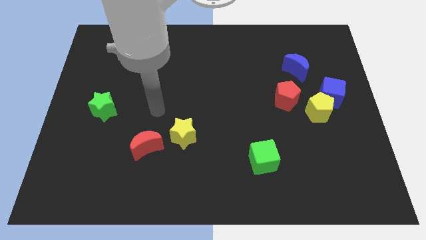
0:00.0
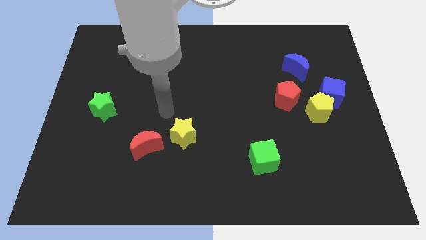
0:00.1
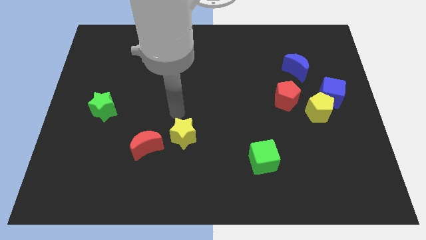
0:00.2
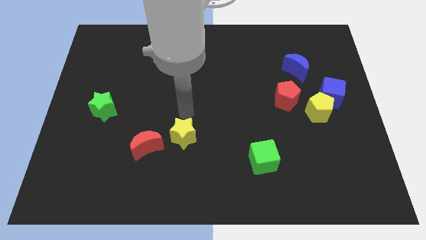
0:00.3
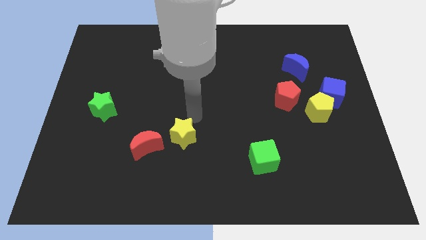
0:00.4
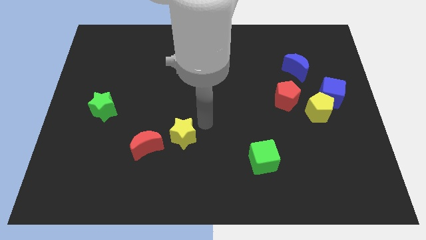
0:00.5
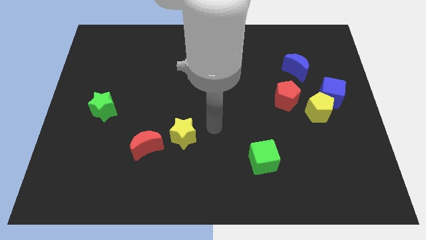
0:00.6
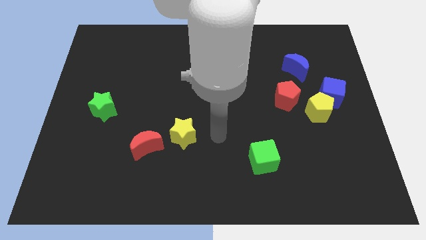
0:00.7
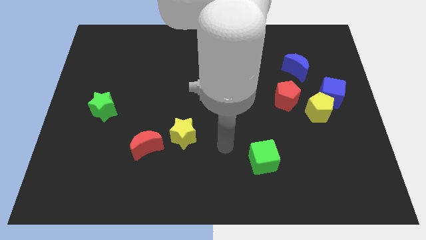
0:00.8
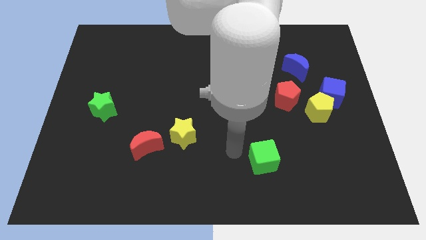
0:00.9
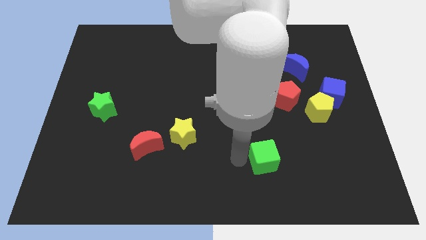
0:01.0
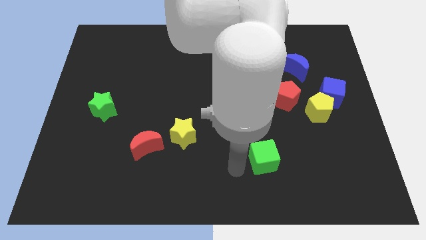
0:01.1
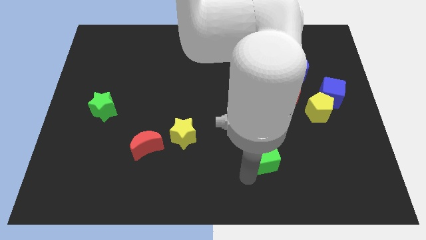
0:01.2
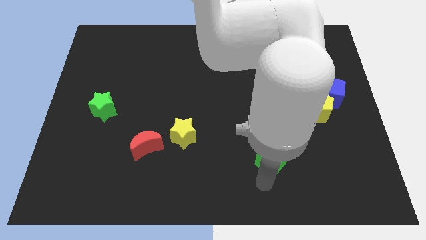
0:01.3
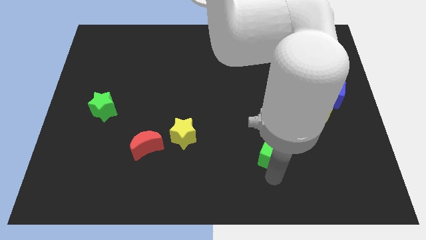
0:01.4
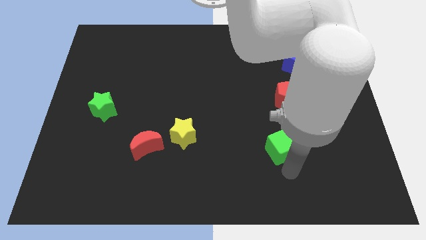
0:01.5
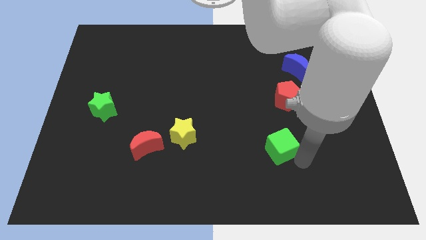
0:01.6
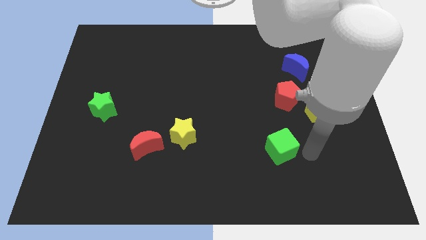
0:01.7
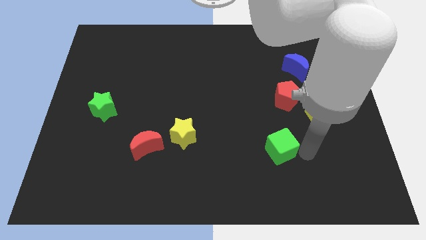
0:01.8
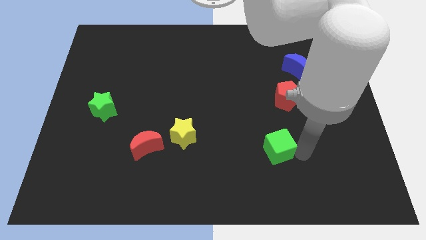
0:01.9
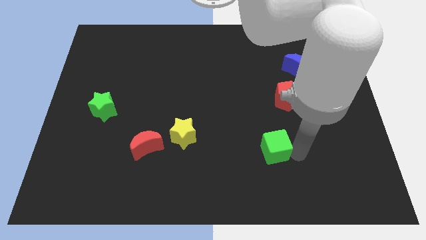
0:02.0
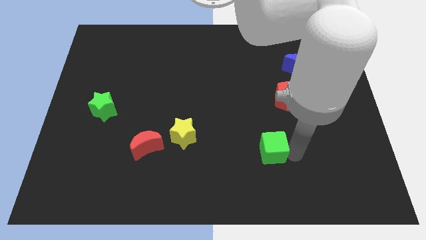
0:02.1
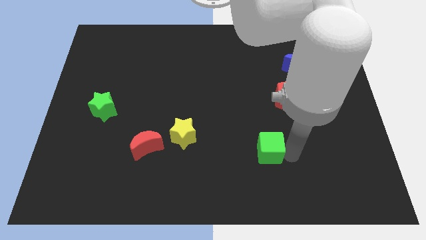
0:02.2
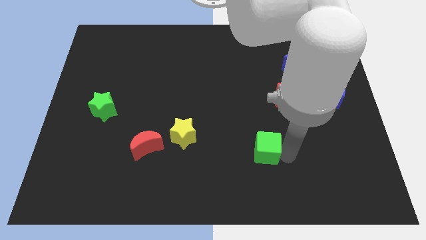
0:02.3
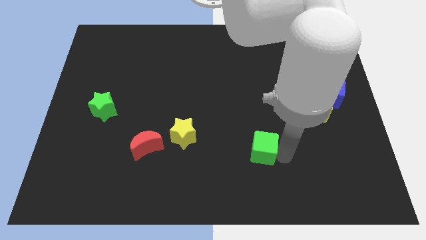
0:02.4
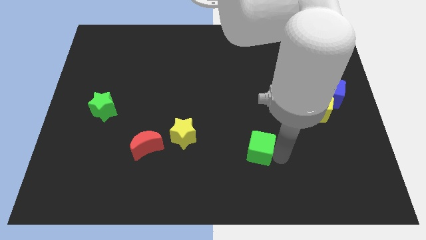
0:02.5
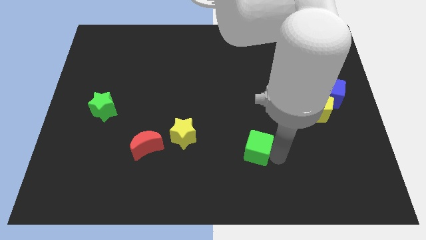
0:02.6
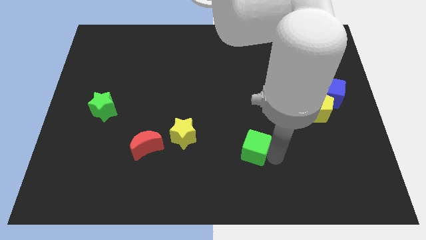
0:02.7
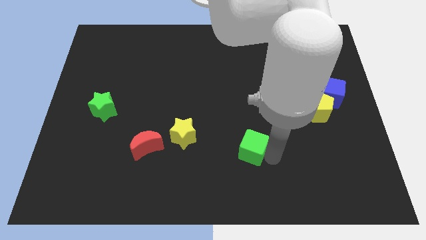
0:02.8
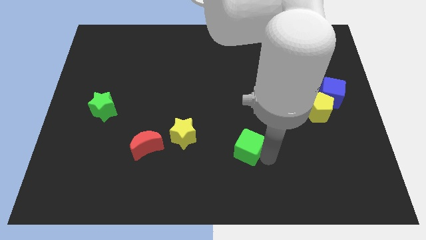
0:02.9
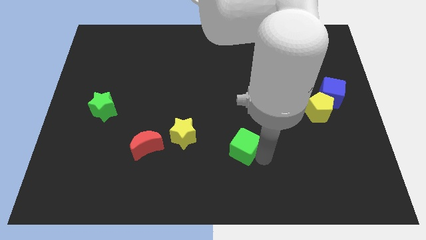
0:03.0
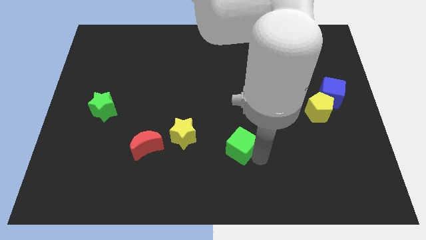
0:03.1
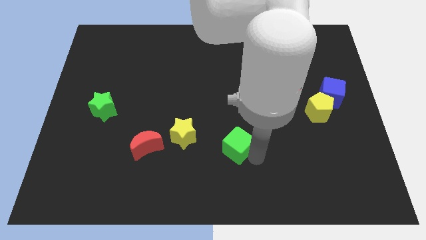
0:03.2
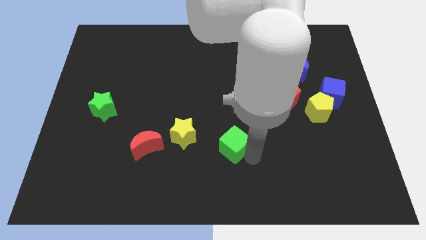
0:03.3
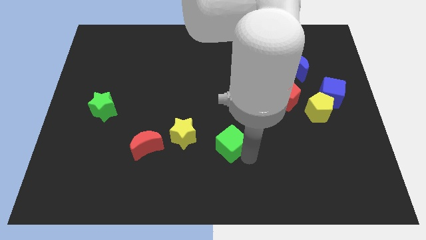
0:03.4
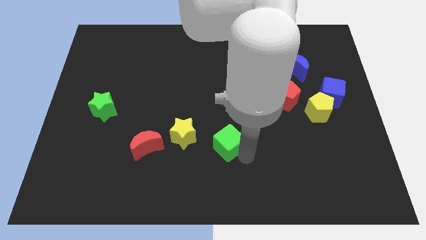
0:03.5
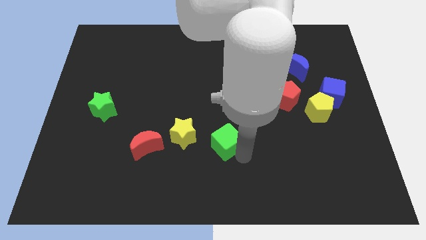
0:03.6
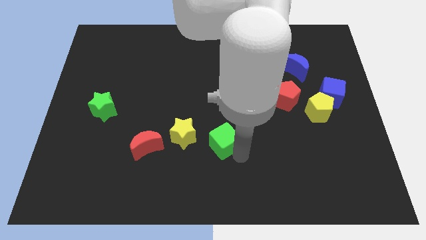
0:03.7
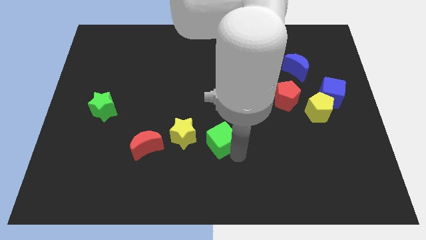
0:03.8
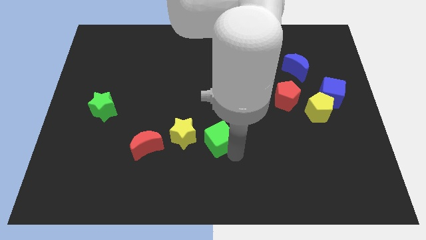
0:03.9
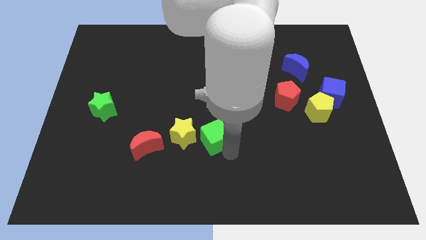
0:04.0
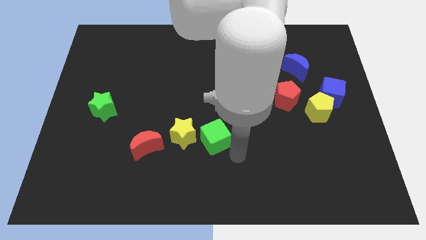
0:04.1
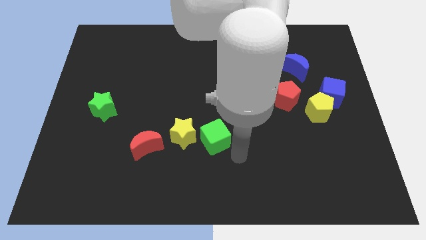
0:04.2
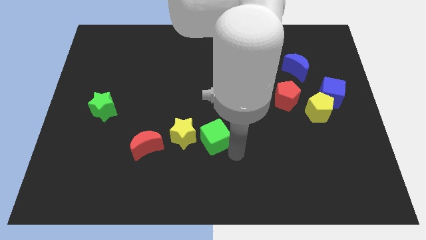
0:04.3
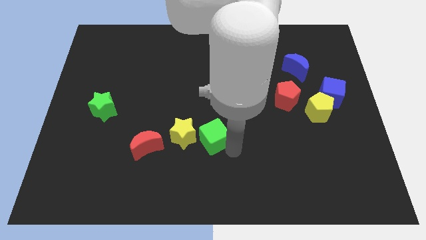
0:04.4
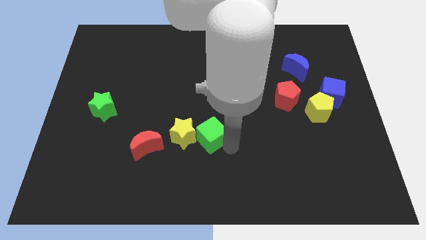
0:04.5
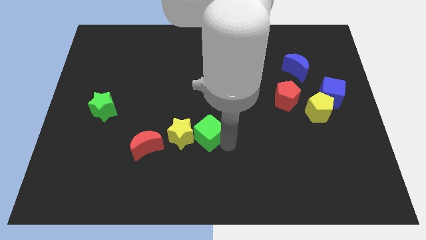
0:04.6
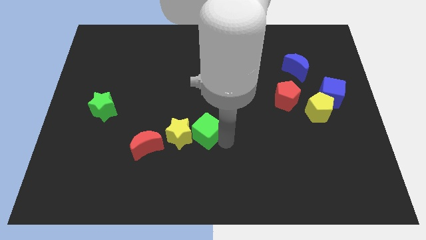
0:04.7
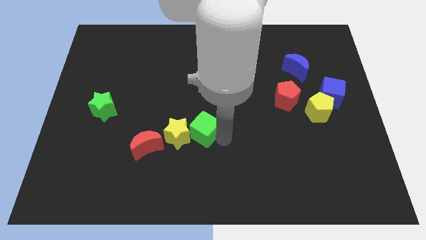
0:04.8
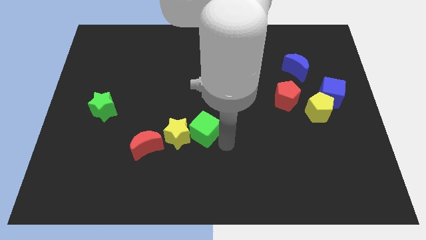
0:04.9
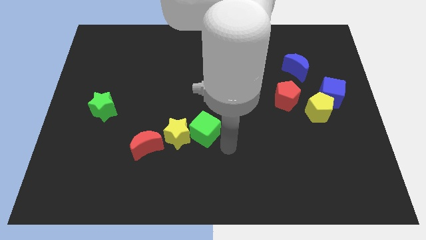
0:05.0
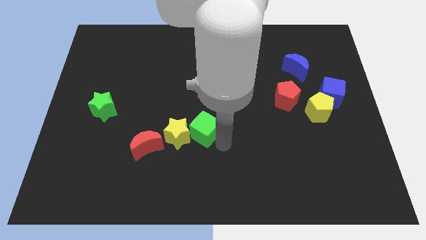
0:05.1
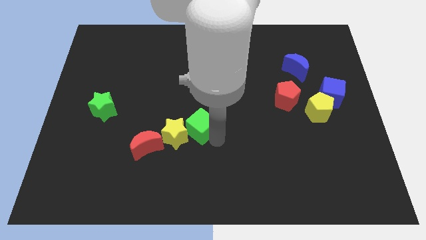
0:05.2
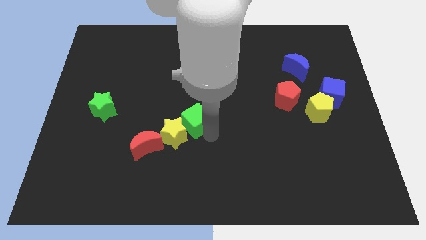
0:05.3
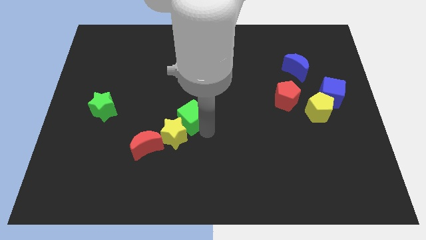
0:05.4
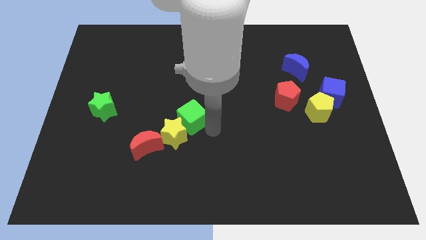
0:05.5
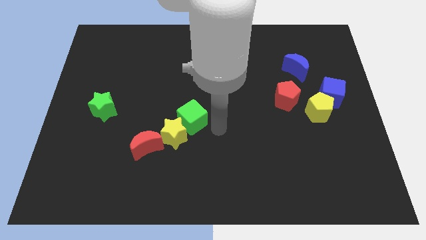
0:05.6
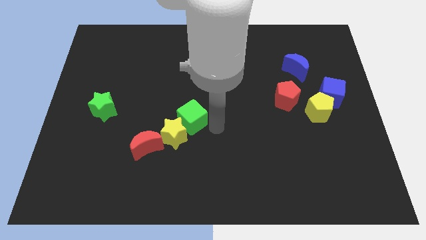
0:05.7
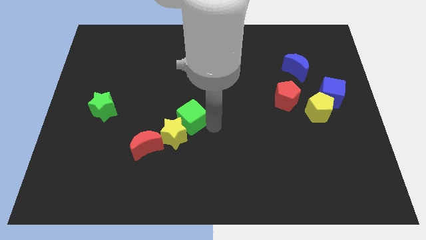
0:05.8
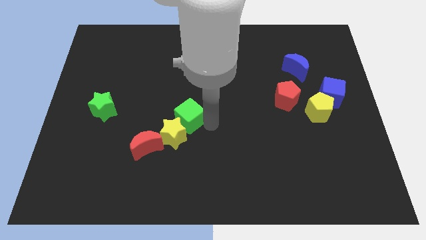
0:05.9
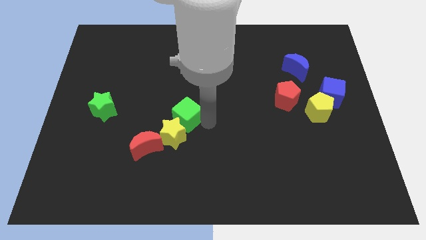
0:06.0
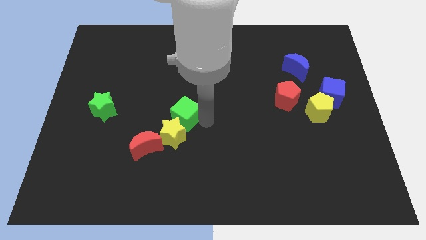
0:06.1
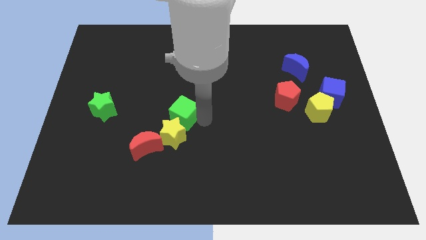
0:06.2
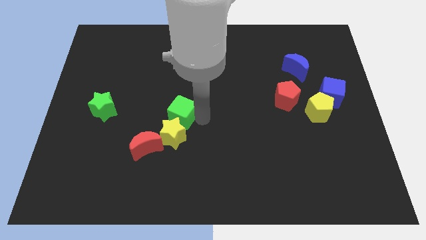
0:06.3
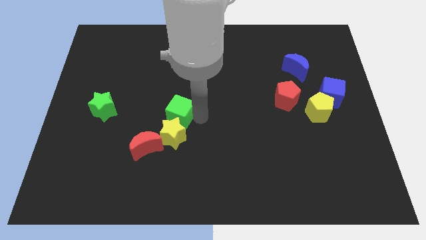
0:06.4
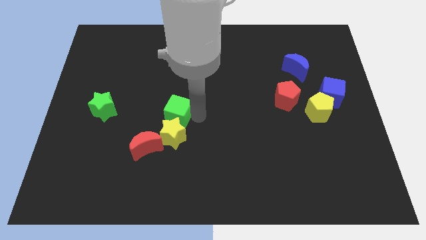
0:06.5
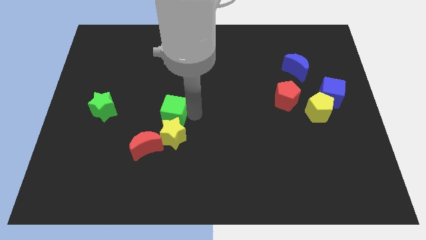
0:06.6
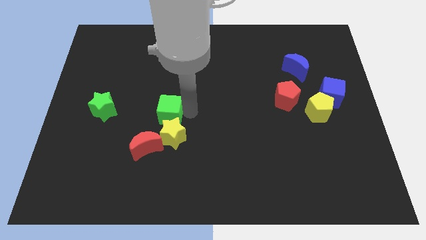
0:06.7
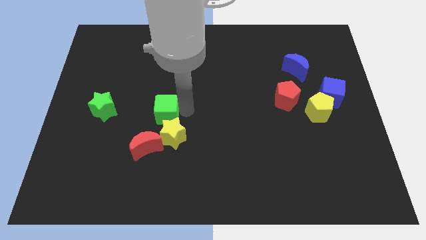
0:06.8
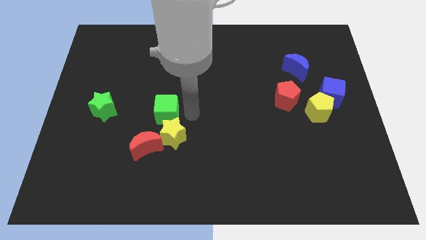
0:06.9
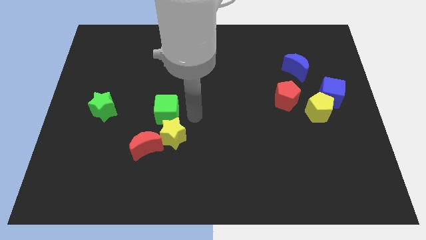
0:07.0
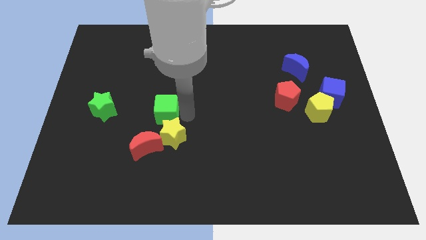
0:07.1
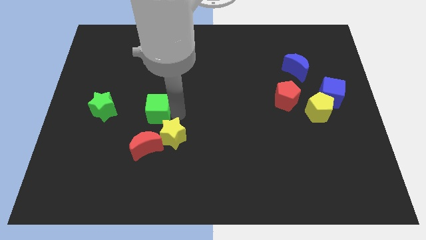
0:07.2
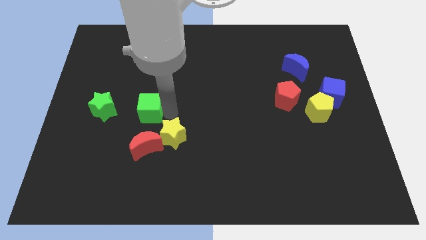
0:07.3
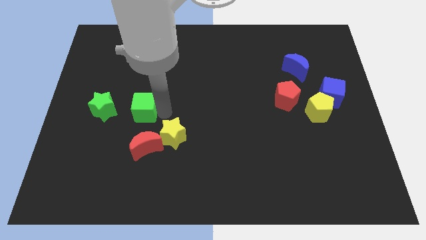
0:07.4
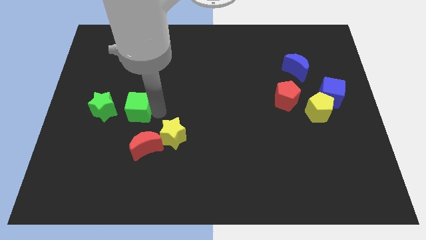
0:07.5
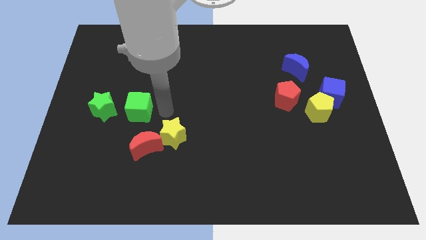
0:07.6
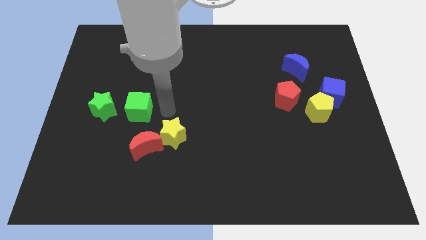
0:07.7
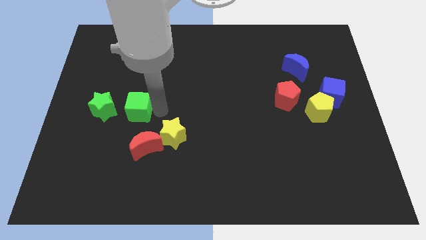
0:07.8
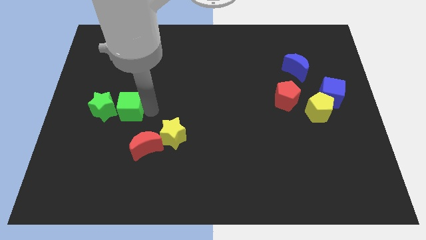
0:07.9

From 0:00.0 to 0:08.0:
slide the green cube to the green star
